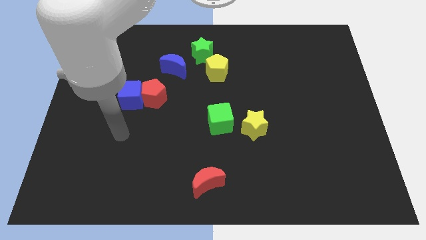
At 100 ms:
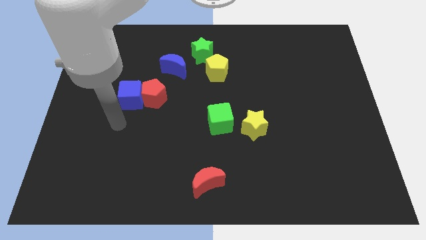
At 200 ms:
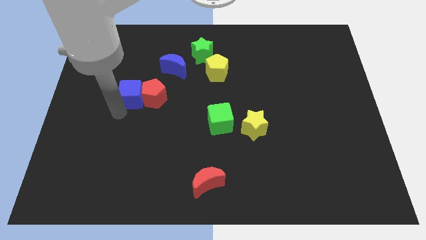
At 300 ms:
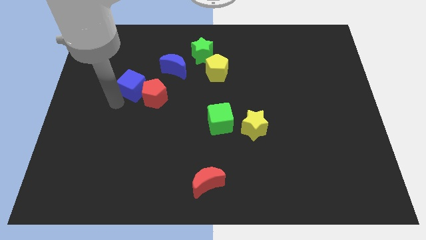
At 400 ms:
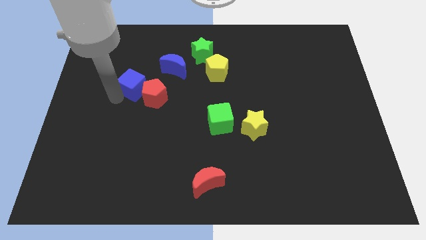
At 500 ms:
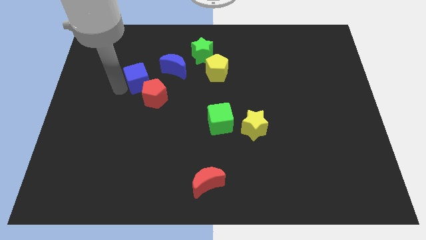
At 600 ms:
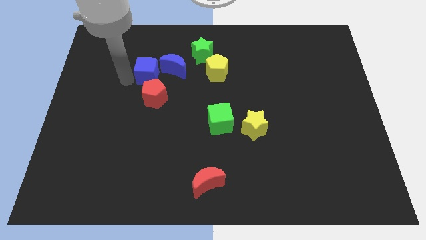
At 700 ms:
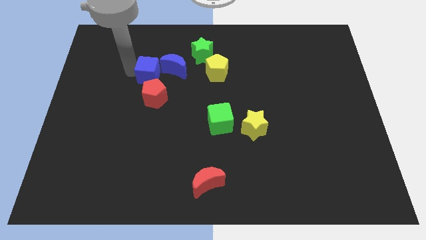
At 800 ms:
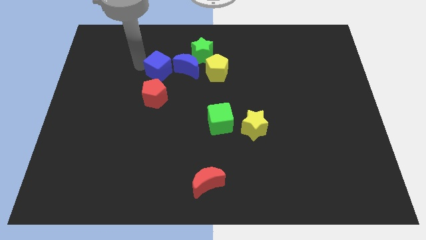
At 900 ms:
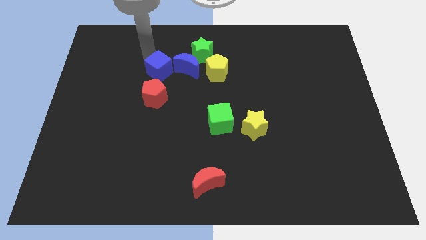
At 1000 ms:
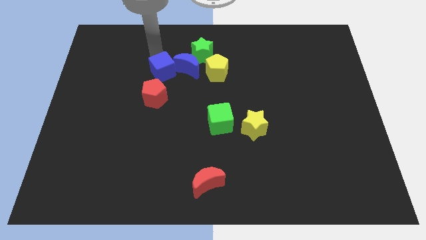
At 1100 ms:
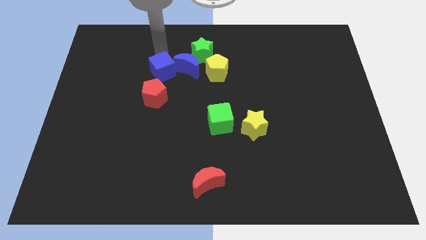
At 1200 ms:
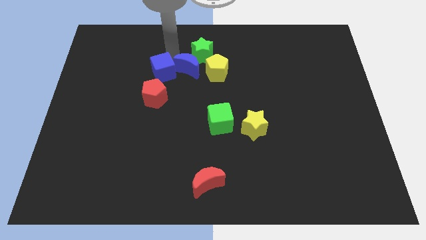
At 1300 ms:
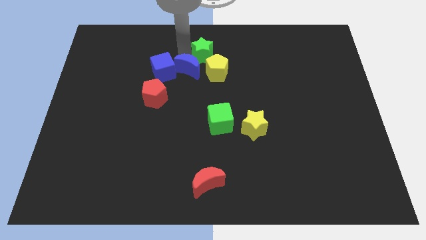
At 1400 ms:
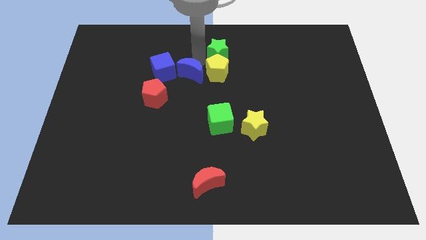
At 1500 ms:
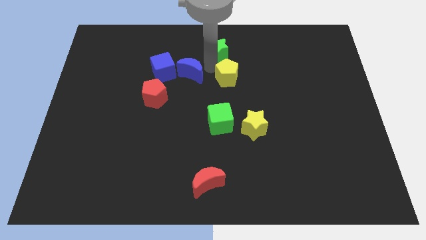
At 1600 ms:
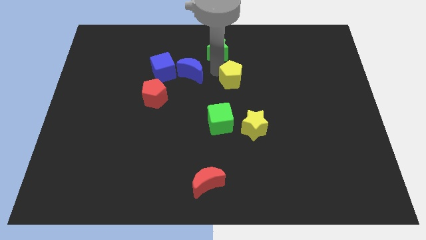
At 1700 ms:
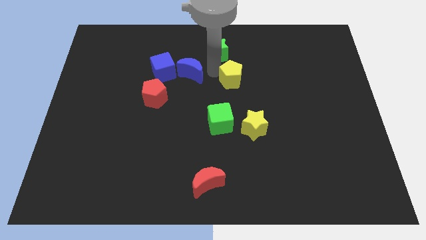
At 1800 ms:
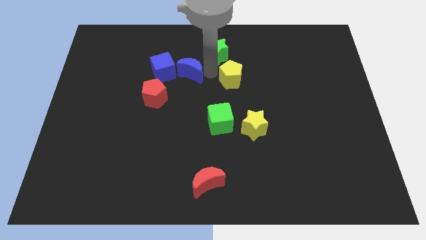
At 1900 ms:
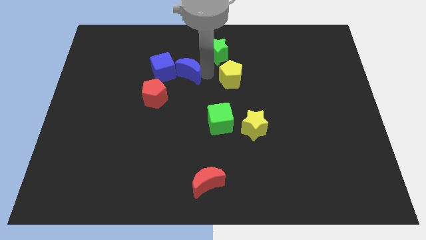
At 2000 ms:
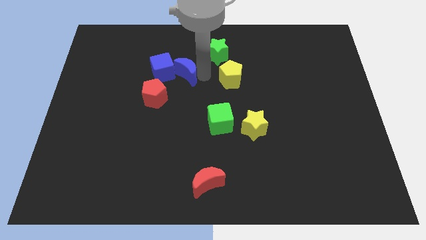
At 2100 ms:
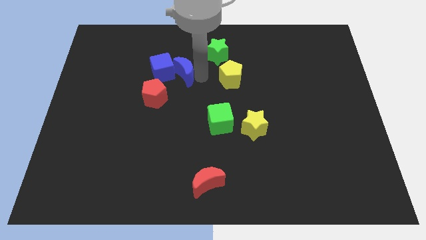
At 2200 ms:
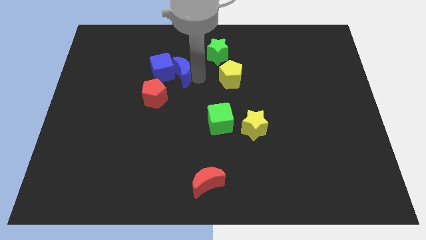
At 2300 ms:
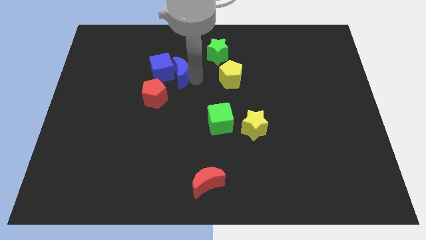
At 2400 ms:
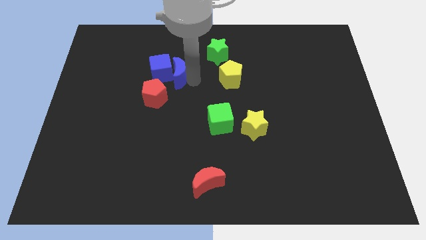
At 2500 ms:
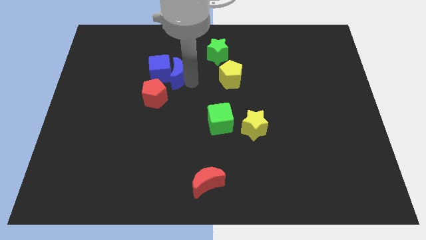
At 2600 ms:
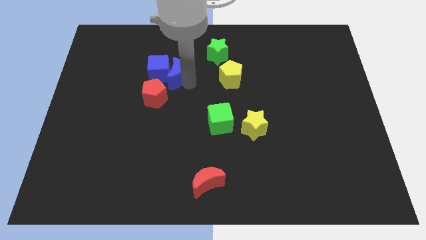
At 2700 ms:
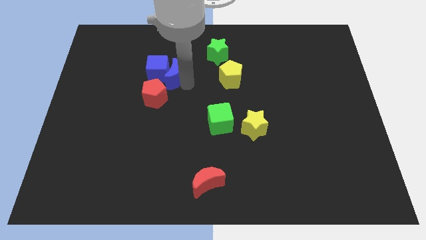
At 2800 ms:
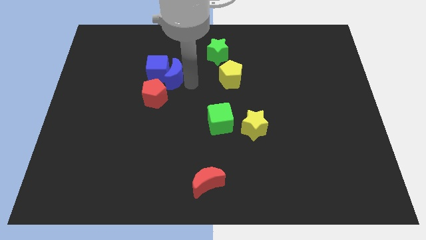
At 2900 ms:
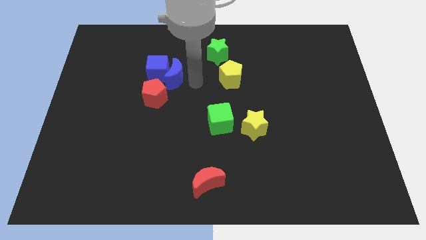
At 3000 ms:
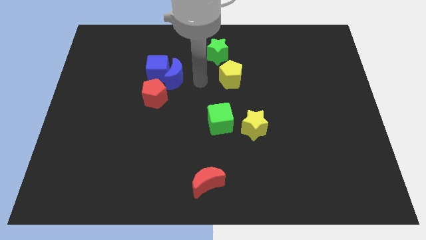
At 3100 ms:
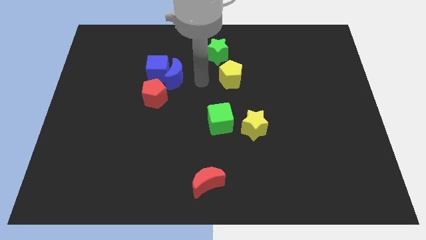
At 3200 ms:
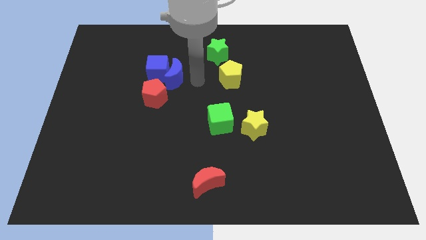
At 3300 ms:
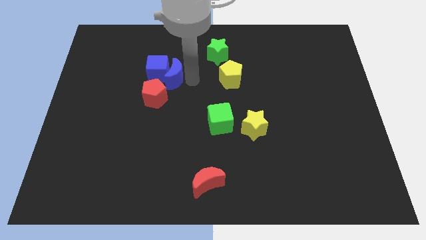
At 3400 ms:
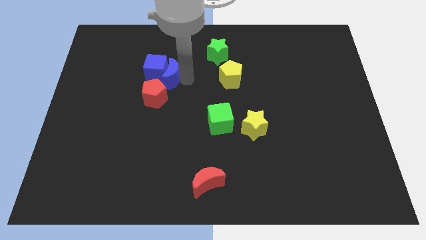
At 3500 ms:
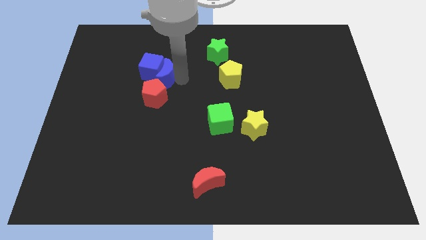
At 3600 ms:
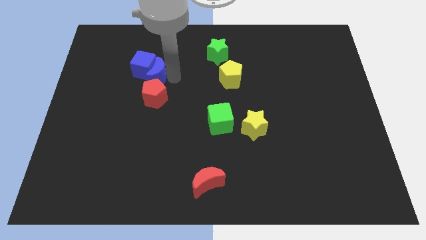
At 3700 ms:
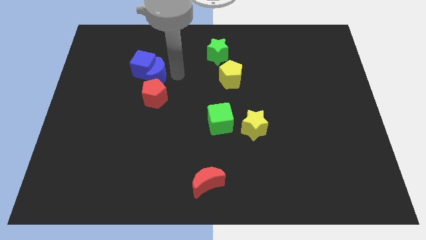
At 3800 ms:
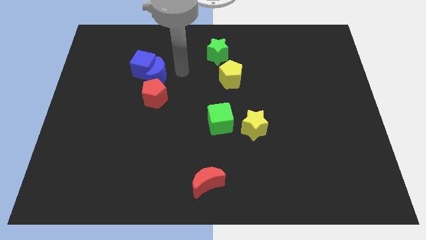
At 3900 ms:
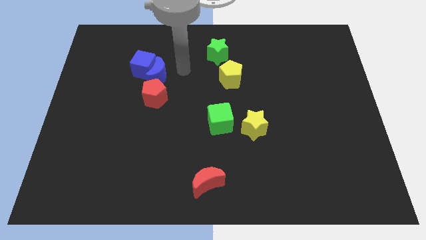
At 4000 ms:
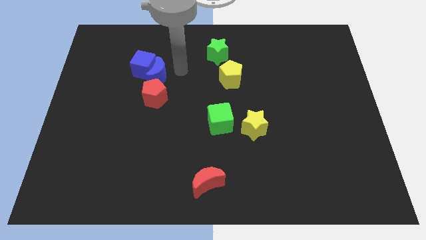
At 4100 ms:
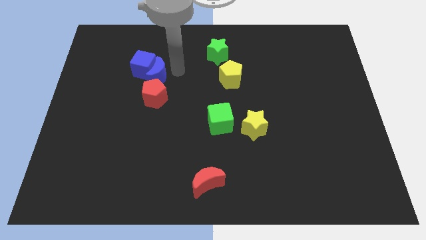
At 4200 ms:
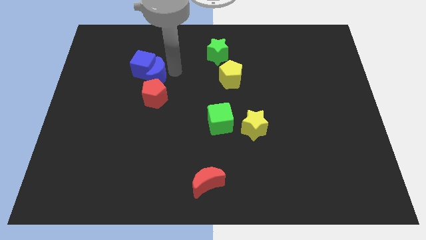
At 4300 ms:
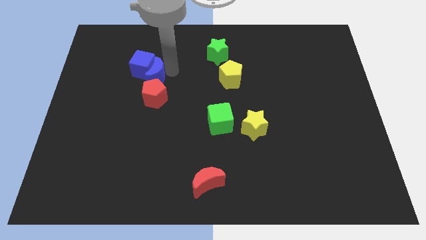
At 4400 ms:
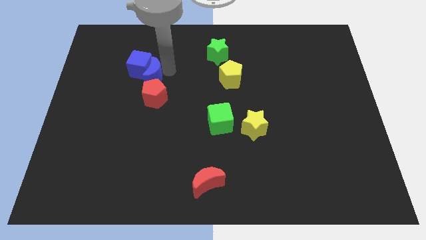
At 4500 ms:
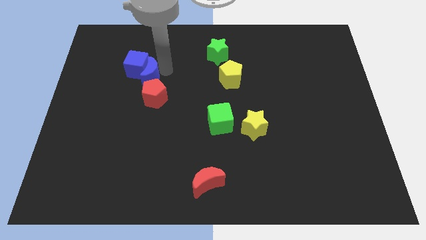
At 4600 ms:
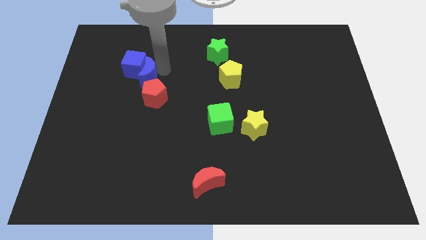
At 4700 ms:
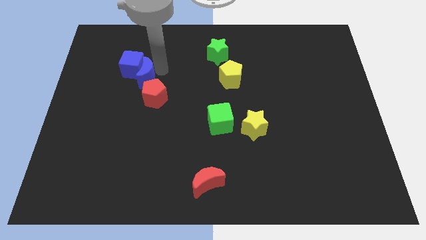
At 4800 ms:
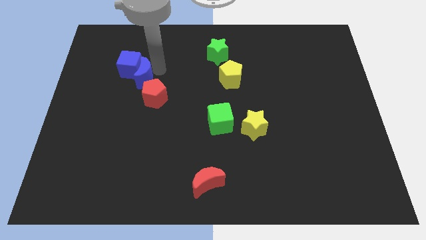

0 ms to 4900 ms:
slide the blue moon a bit downwards and then left

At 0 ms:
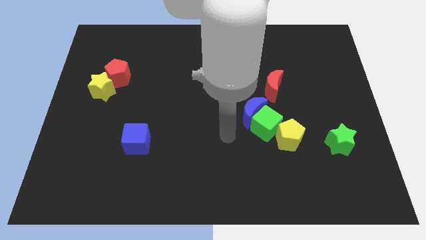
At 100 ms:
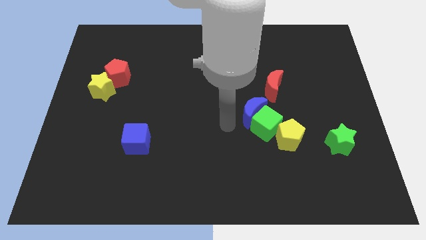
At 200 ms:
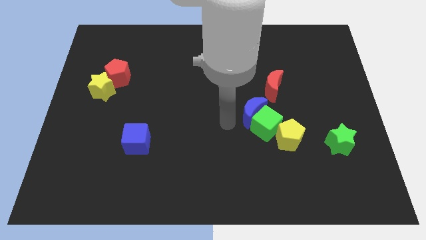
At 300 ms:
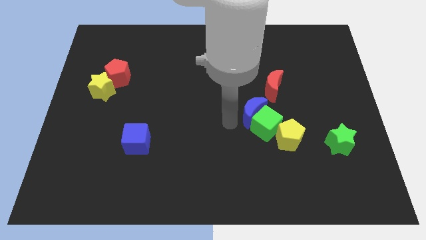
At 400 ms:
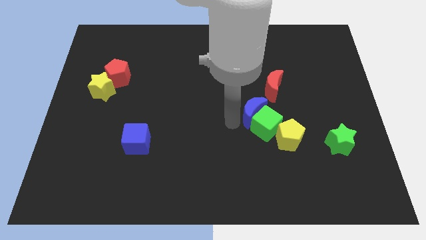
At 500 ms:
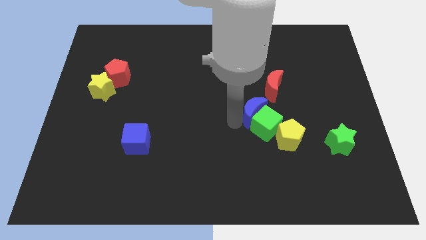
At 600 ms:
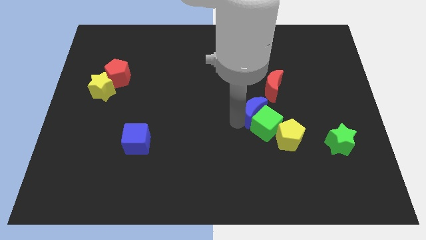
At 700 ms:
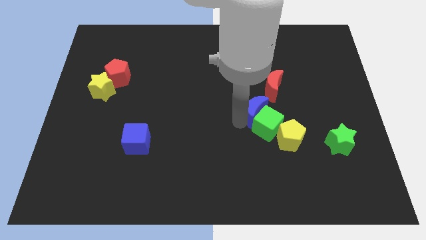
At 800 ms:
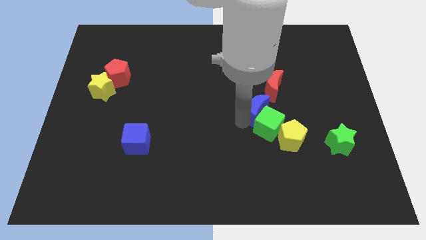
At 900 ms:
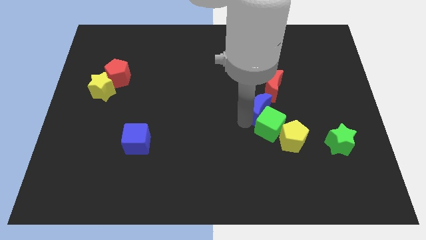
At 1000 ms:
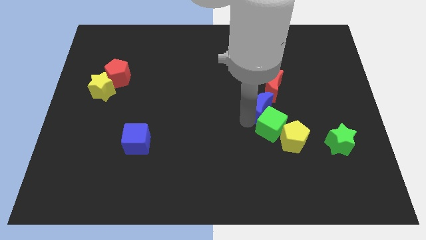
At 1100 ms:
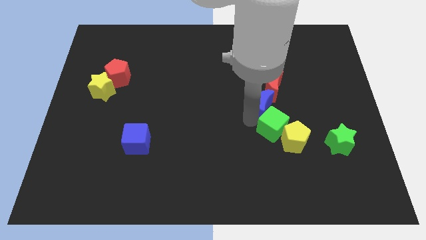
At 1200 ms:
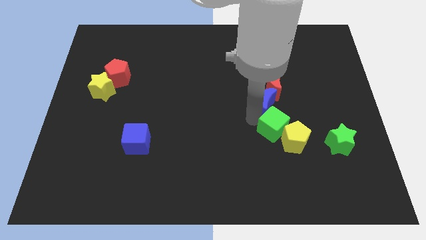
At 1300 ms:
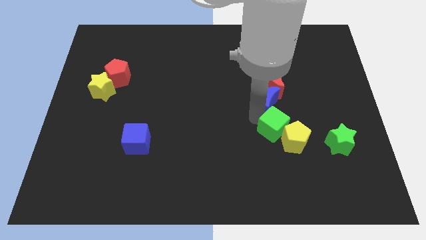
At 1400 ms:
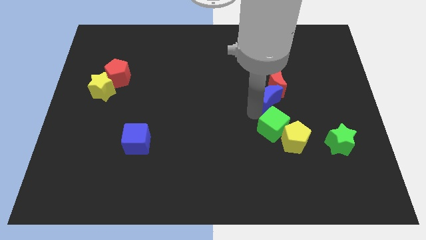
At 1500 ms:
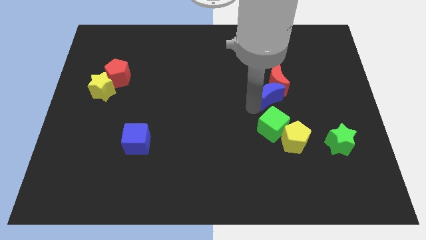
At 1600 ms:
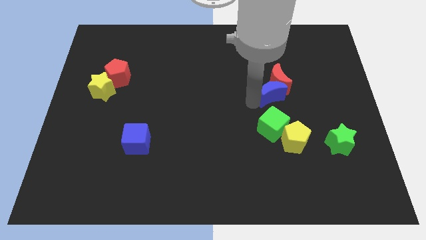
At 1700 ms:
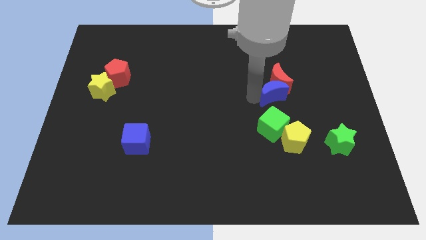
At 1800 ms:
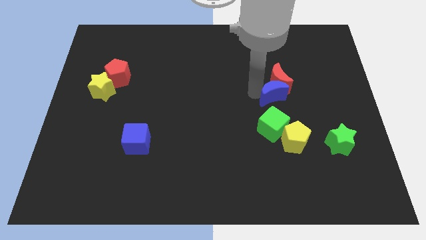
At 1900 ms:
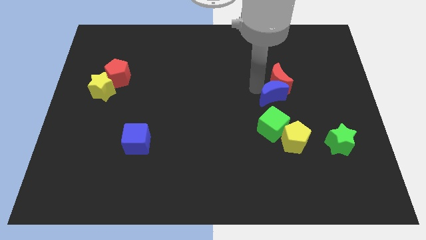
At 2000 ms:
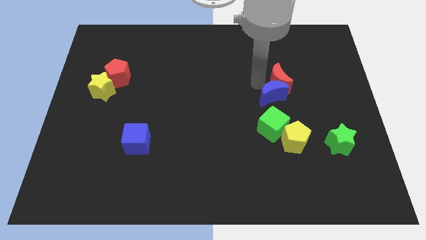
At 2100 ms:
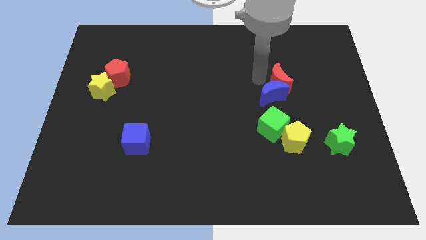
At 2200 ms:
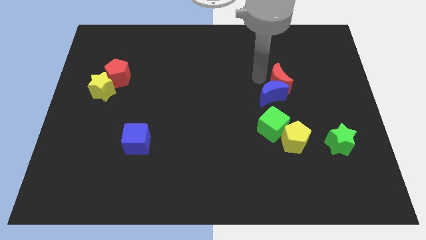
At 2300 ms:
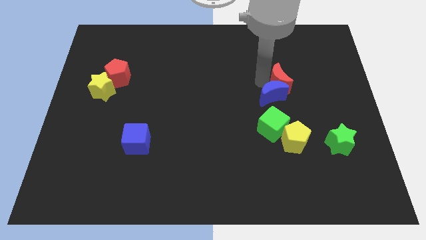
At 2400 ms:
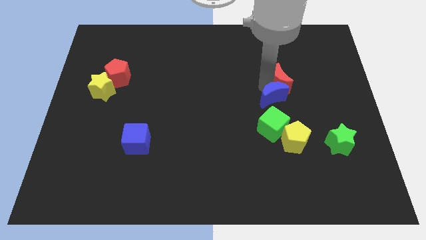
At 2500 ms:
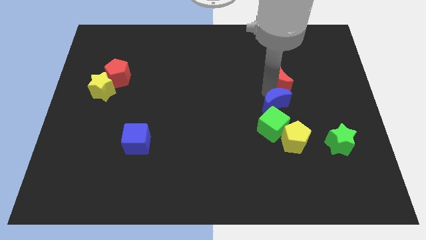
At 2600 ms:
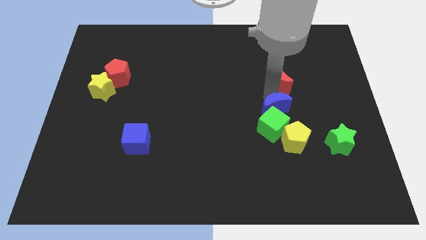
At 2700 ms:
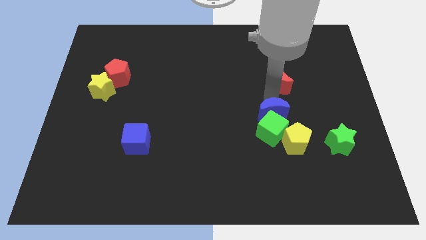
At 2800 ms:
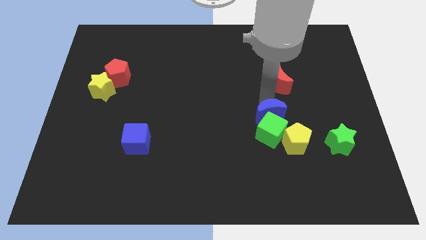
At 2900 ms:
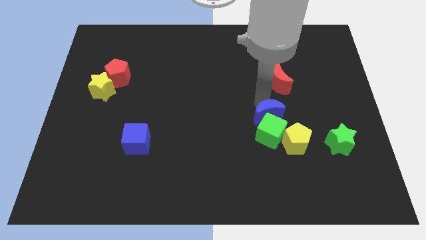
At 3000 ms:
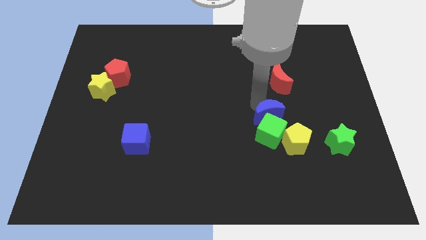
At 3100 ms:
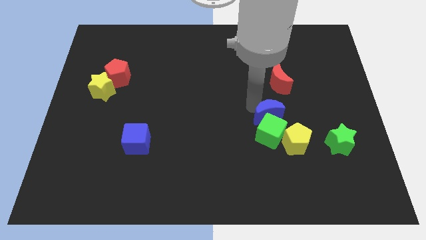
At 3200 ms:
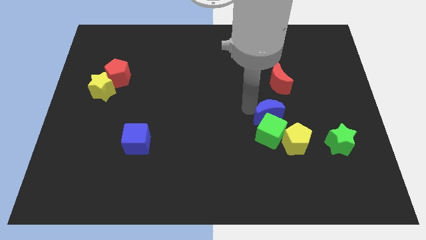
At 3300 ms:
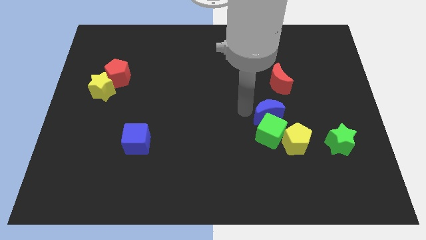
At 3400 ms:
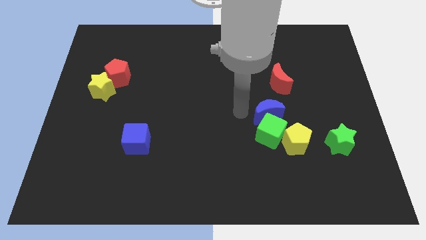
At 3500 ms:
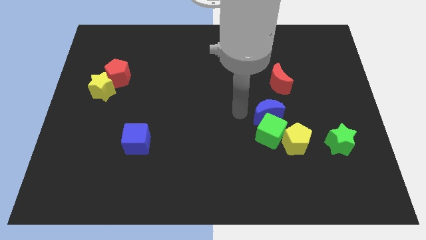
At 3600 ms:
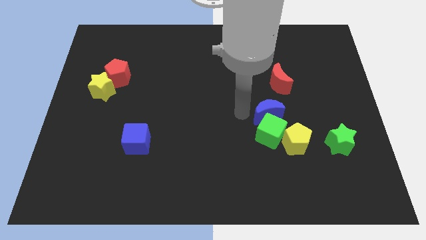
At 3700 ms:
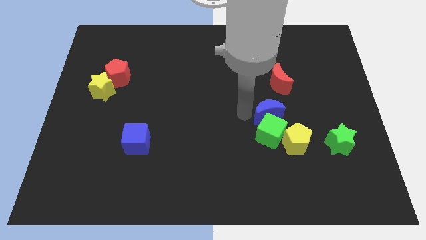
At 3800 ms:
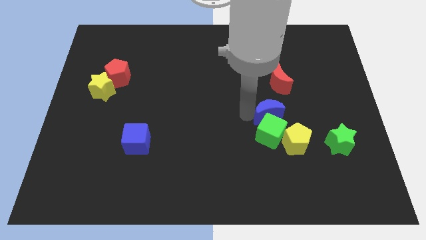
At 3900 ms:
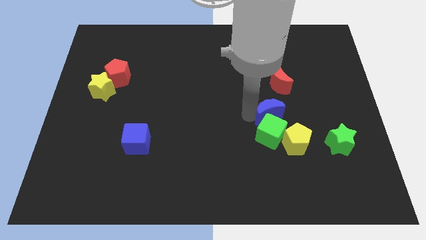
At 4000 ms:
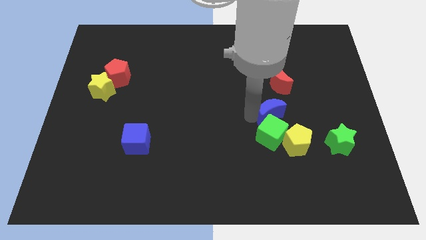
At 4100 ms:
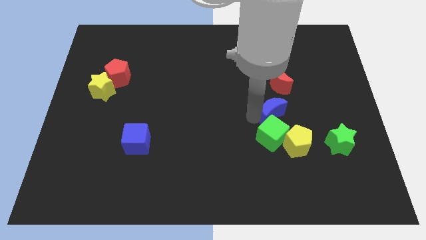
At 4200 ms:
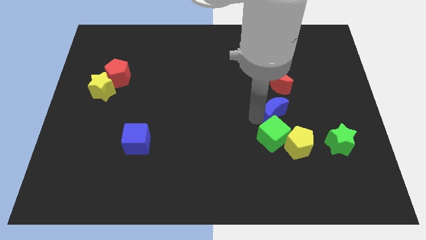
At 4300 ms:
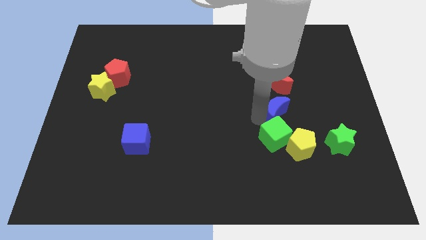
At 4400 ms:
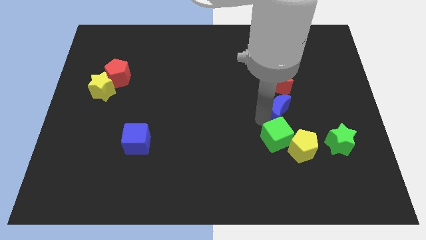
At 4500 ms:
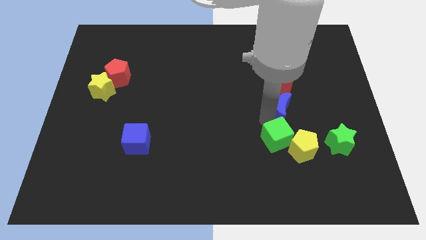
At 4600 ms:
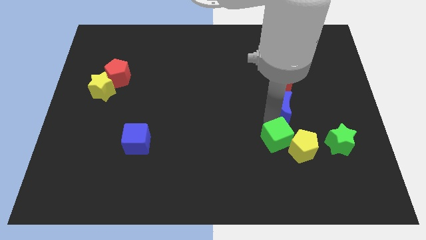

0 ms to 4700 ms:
move the blue moon to the right somewhat
